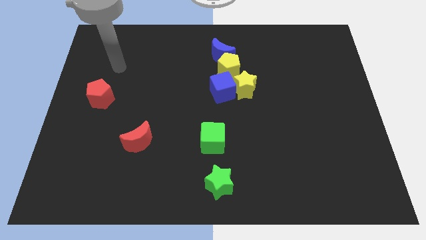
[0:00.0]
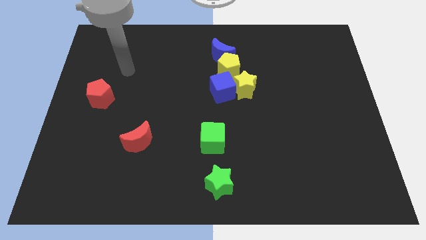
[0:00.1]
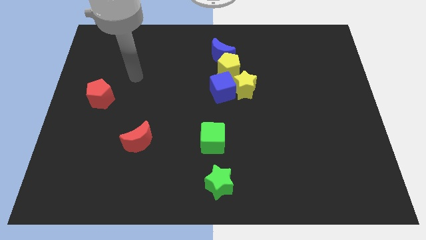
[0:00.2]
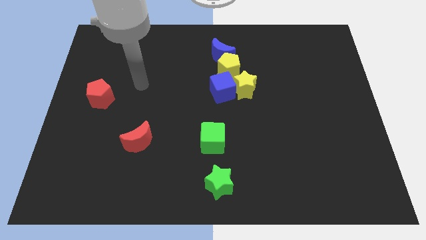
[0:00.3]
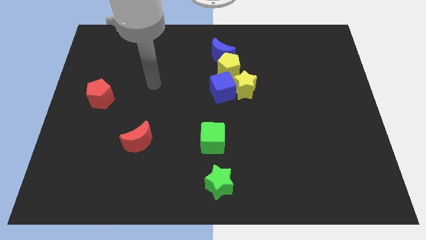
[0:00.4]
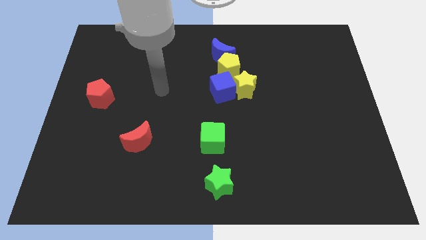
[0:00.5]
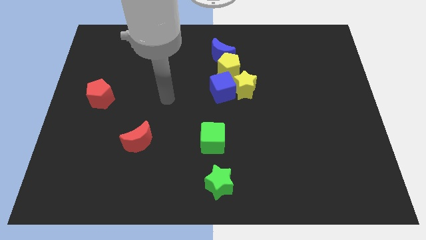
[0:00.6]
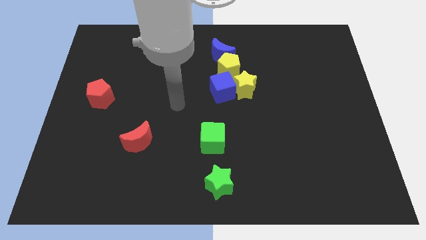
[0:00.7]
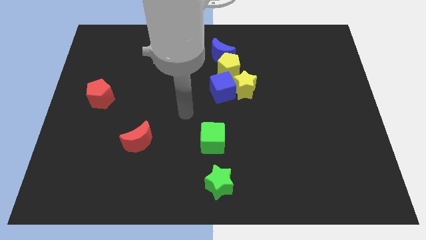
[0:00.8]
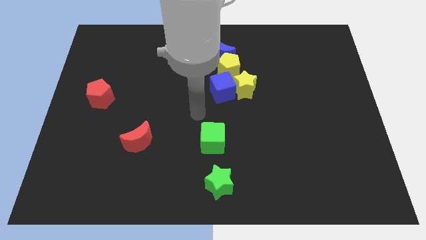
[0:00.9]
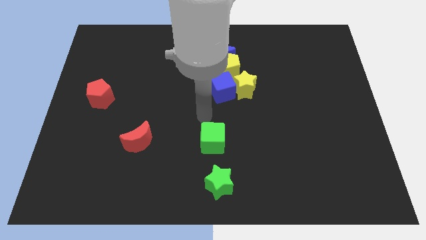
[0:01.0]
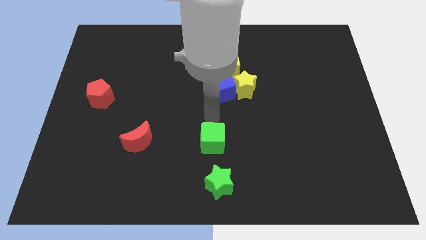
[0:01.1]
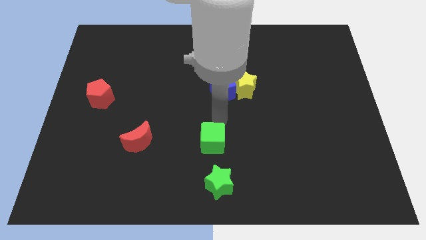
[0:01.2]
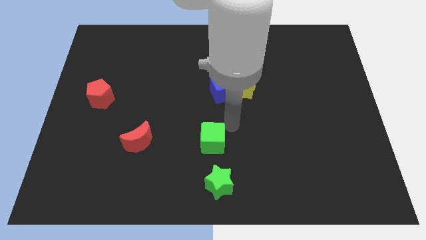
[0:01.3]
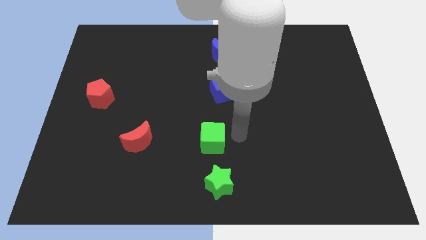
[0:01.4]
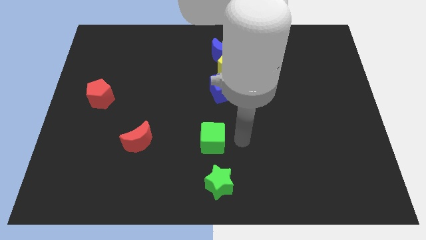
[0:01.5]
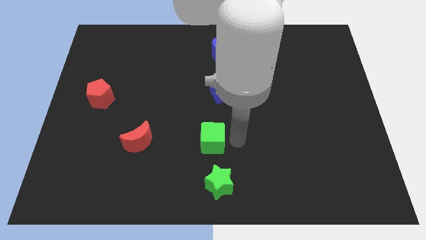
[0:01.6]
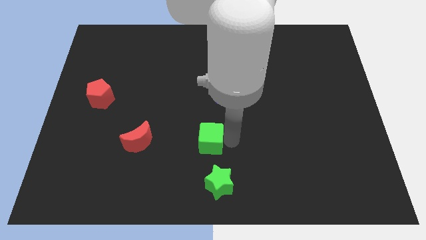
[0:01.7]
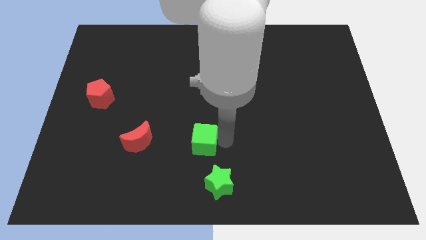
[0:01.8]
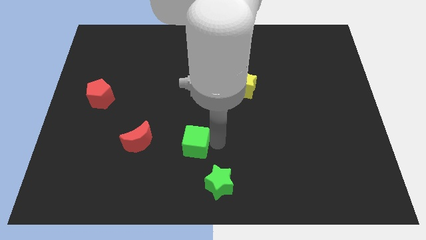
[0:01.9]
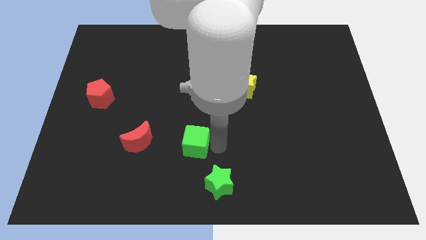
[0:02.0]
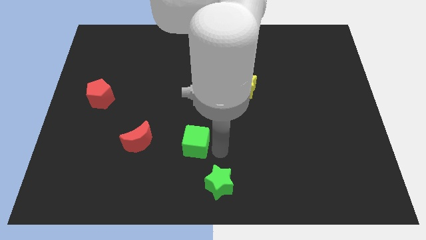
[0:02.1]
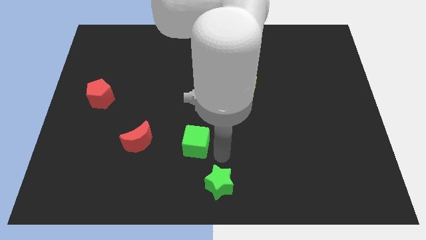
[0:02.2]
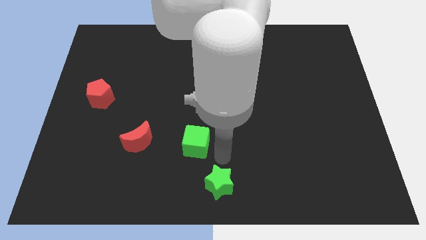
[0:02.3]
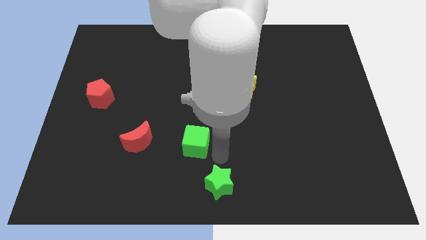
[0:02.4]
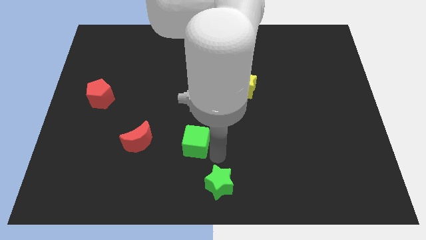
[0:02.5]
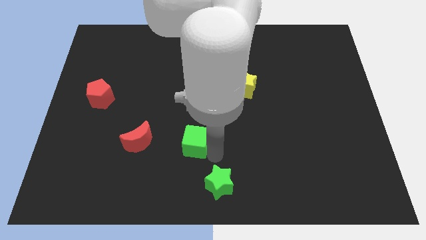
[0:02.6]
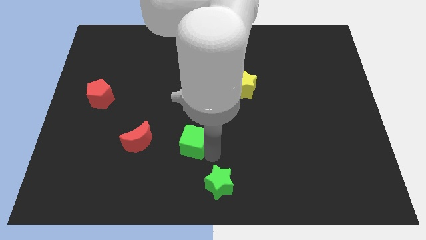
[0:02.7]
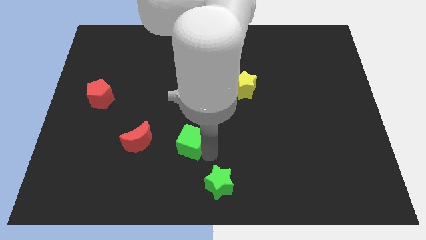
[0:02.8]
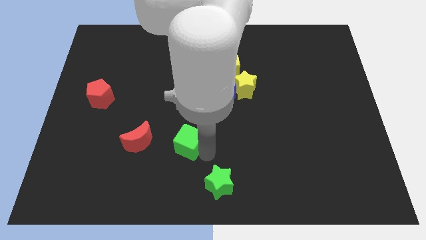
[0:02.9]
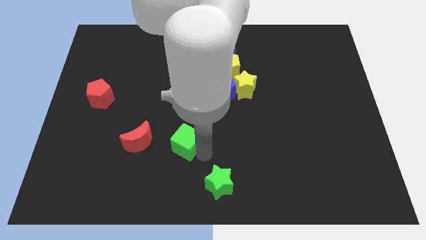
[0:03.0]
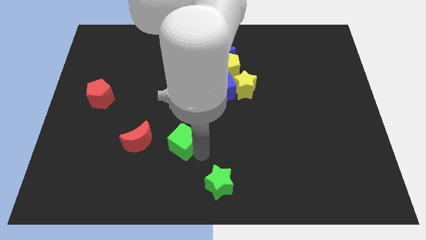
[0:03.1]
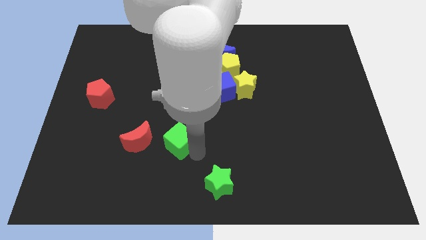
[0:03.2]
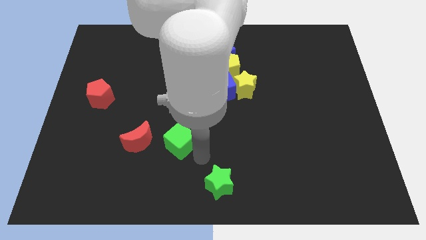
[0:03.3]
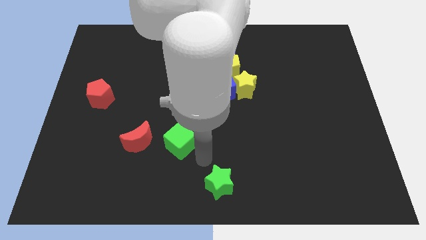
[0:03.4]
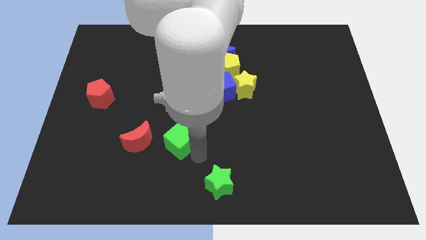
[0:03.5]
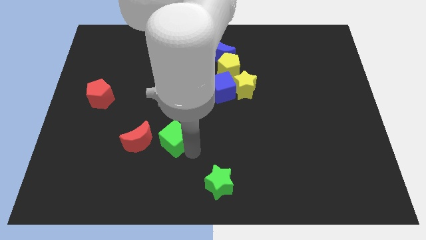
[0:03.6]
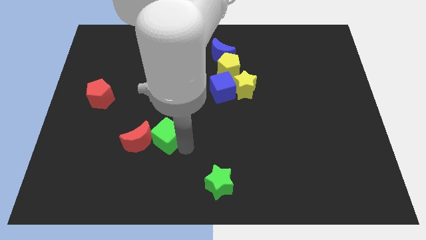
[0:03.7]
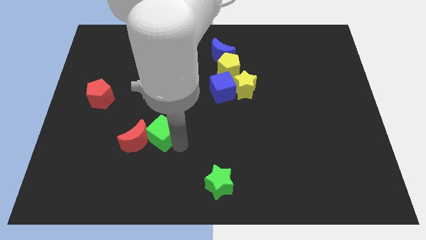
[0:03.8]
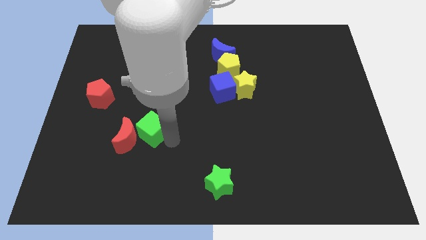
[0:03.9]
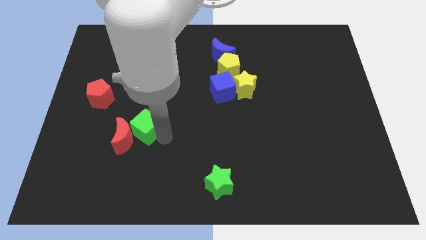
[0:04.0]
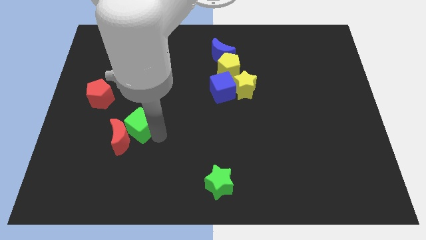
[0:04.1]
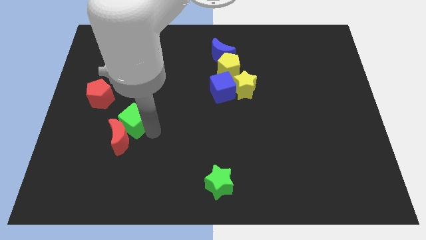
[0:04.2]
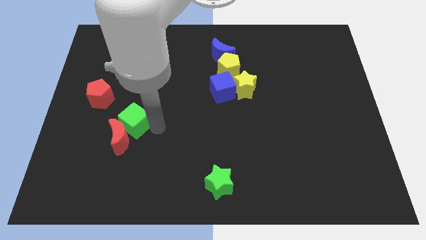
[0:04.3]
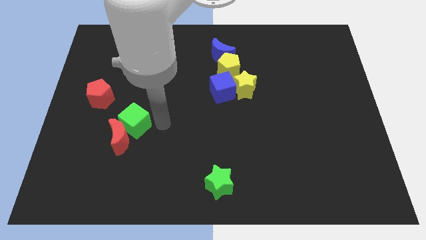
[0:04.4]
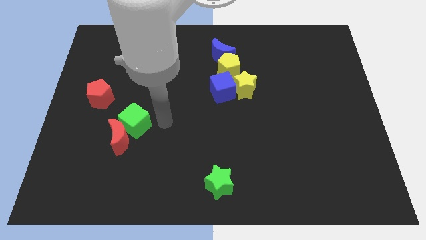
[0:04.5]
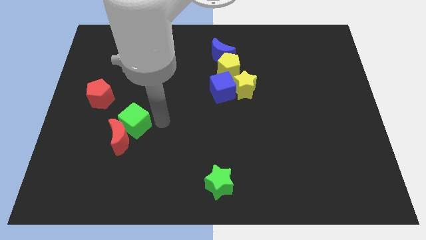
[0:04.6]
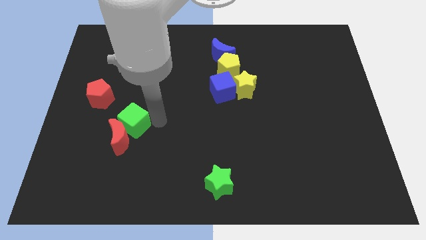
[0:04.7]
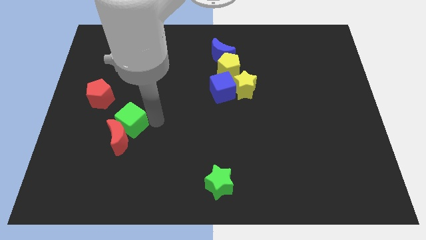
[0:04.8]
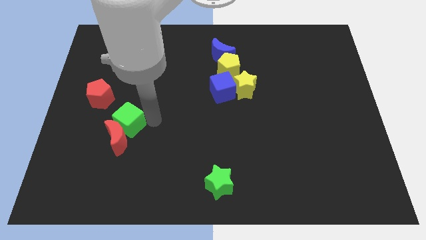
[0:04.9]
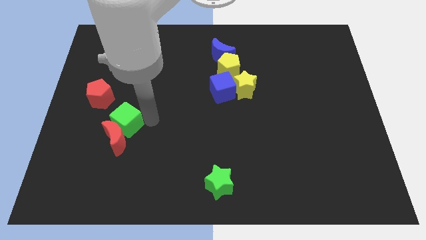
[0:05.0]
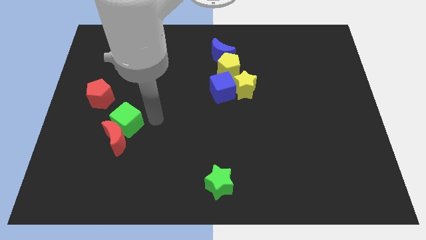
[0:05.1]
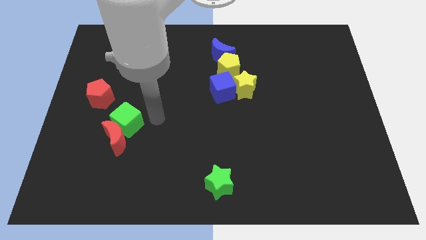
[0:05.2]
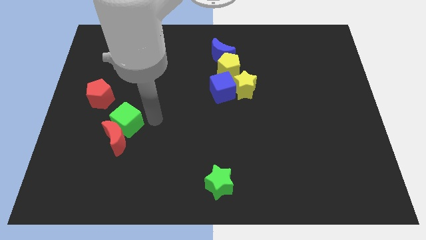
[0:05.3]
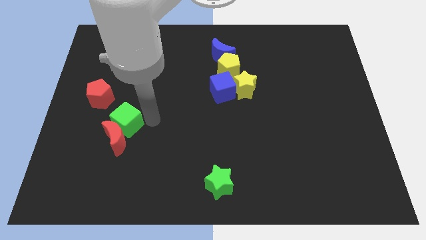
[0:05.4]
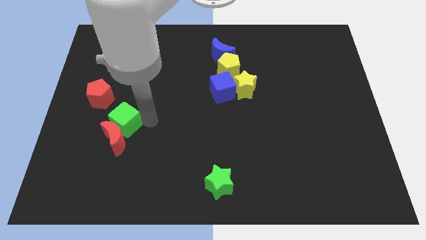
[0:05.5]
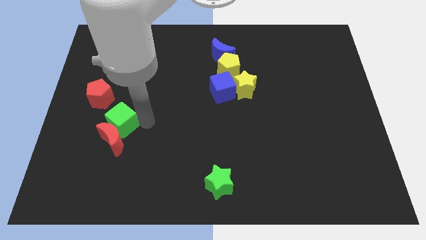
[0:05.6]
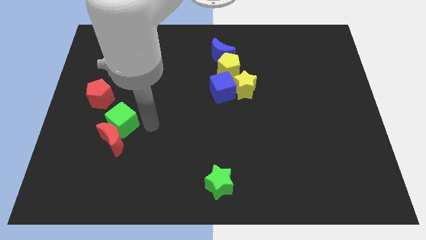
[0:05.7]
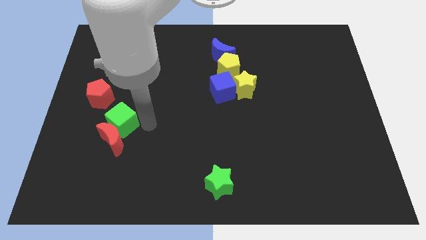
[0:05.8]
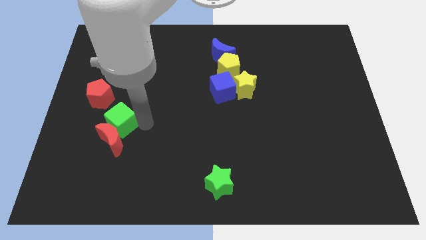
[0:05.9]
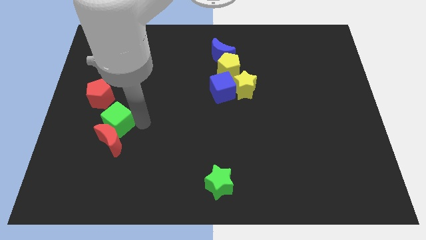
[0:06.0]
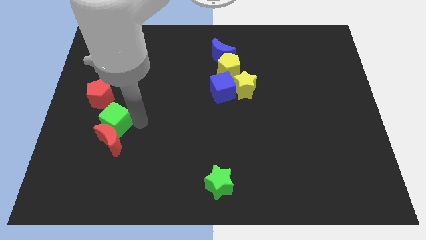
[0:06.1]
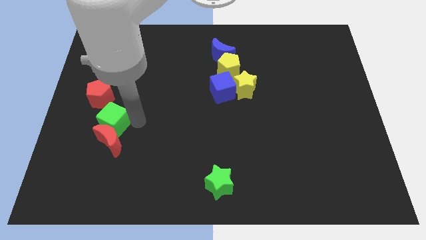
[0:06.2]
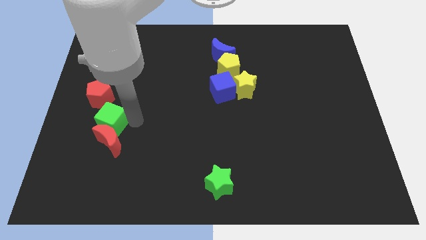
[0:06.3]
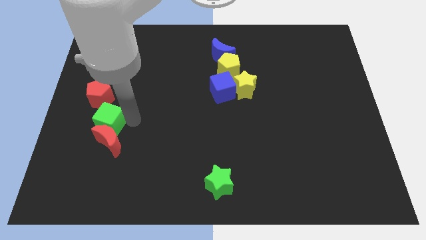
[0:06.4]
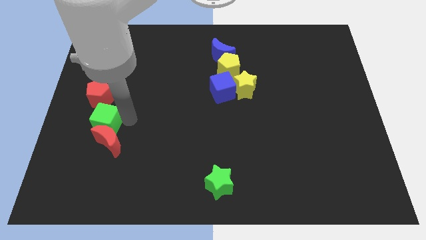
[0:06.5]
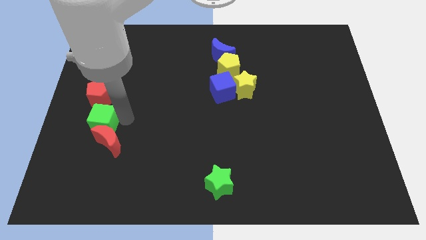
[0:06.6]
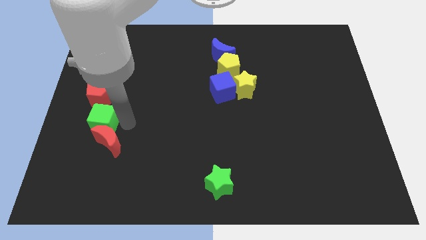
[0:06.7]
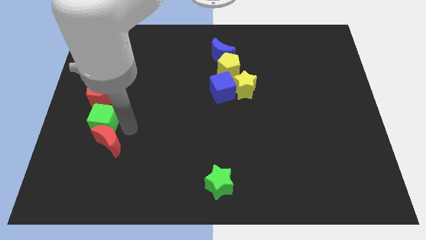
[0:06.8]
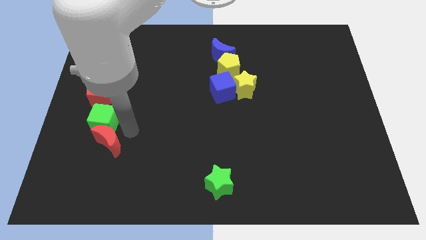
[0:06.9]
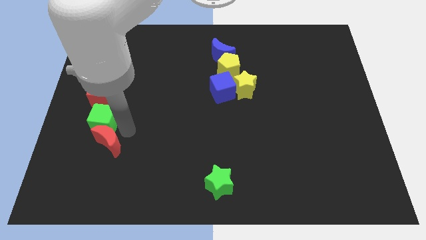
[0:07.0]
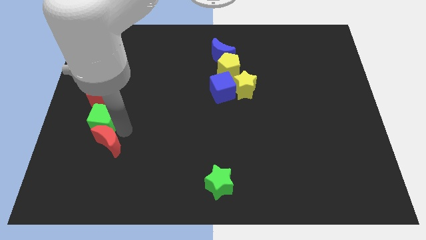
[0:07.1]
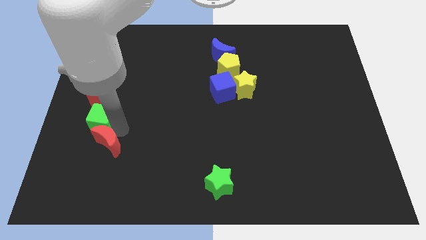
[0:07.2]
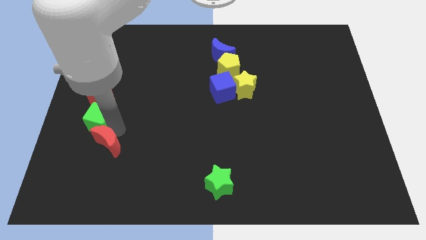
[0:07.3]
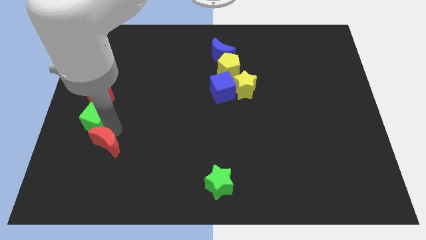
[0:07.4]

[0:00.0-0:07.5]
move the green cube to the center left

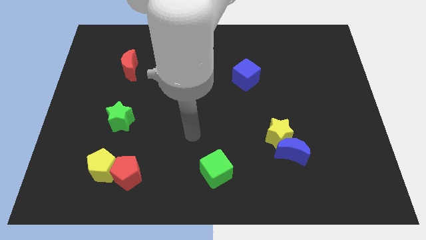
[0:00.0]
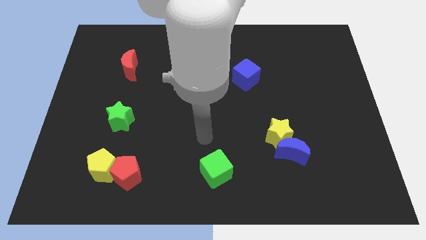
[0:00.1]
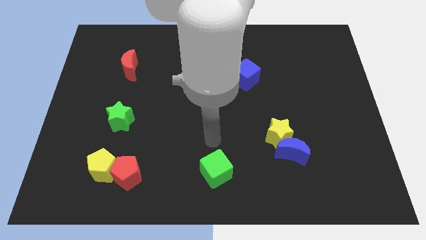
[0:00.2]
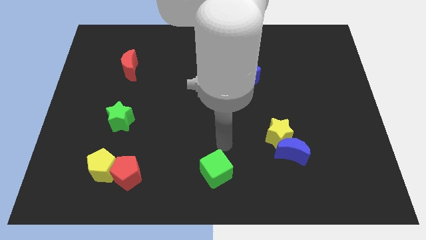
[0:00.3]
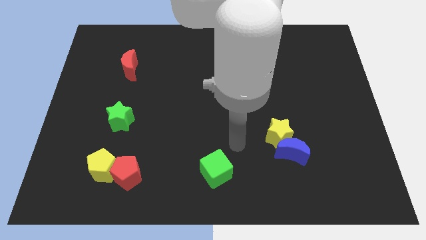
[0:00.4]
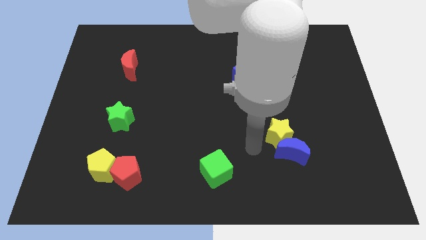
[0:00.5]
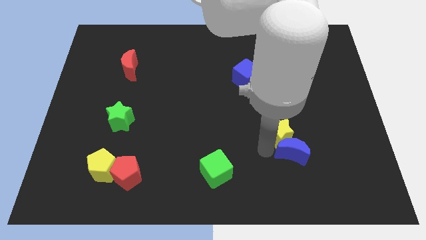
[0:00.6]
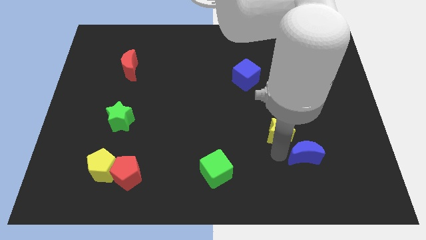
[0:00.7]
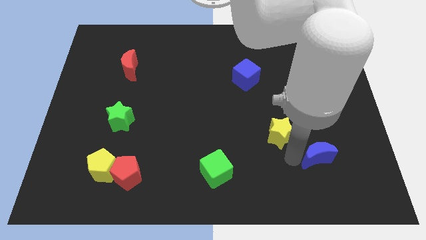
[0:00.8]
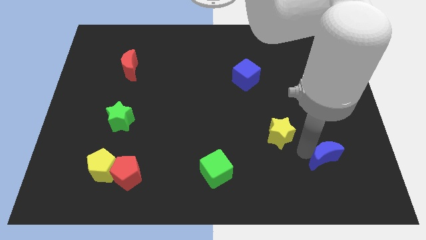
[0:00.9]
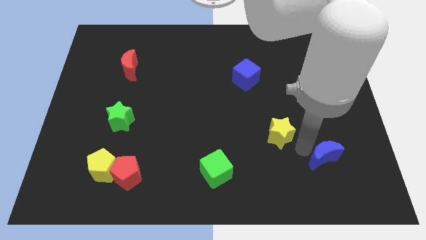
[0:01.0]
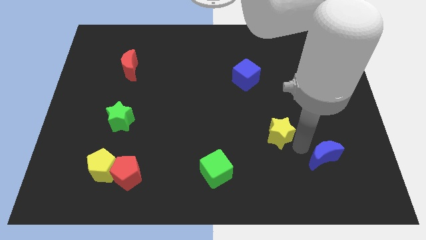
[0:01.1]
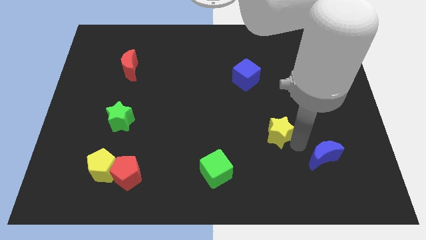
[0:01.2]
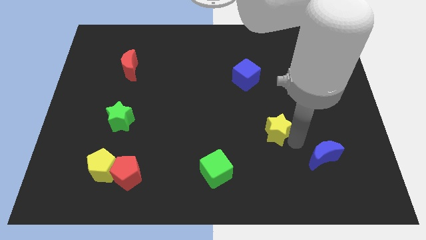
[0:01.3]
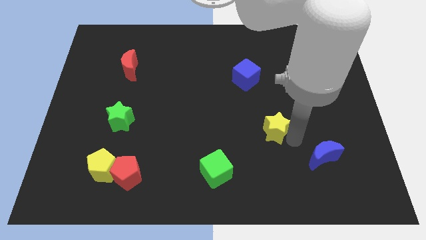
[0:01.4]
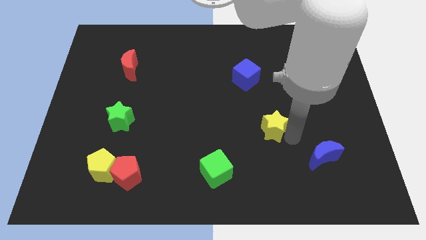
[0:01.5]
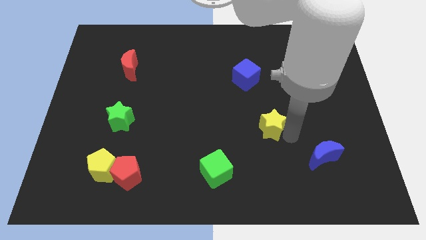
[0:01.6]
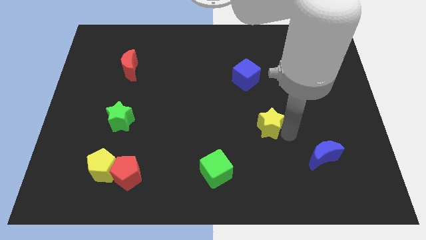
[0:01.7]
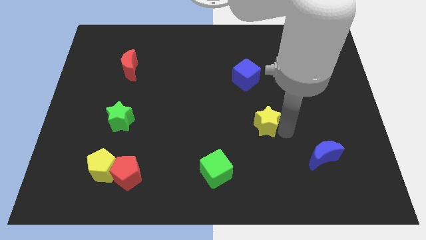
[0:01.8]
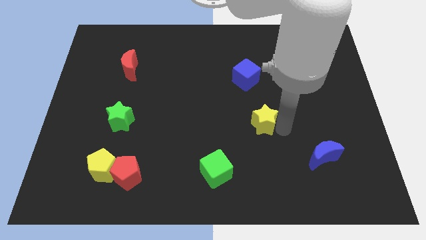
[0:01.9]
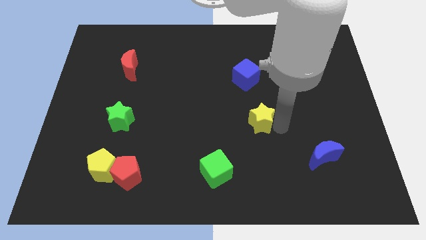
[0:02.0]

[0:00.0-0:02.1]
push the yellow star to the center of the board
